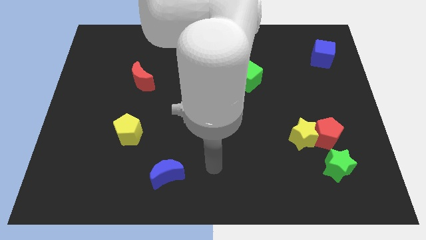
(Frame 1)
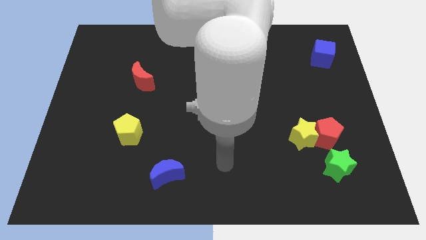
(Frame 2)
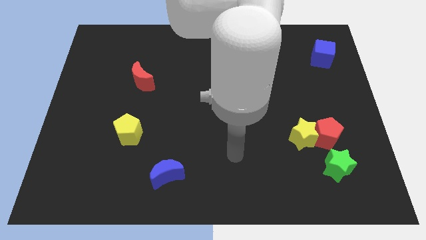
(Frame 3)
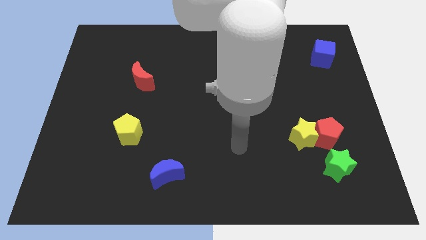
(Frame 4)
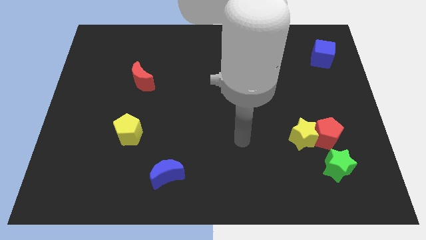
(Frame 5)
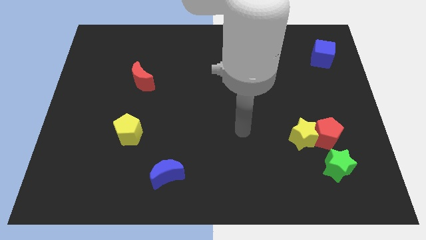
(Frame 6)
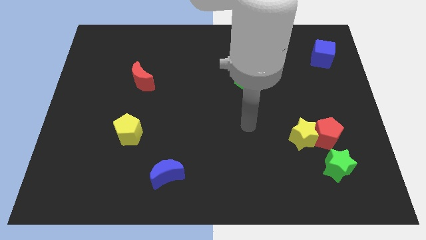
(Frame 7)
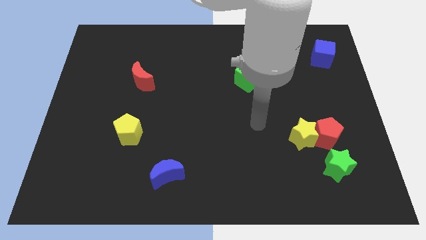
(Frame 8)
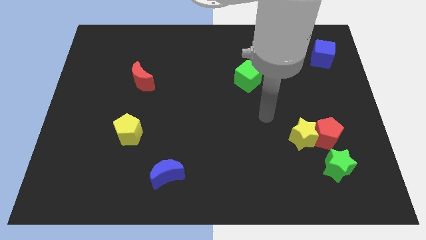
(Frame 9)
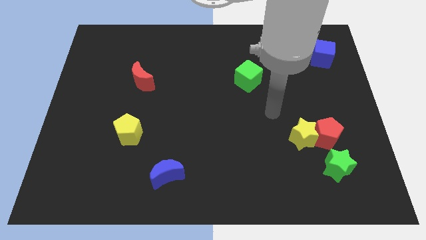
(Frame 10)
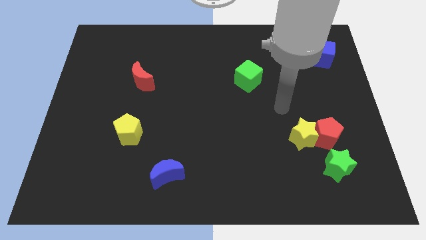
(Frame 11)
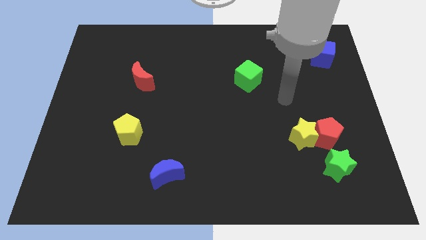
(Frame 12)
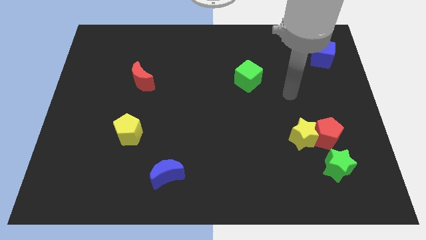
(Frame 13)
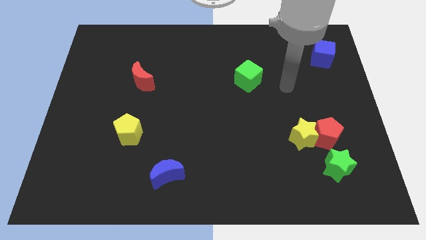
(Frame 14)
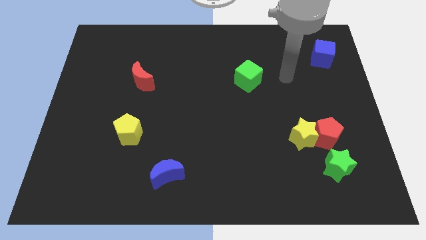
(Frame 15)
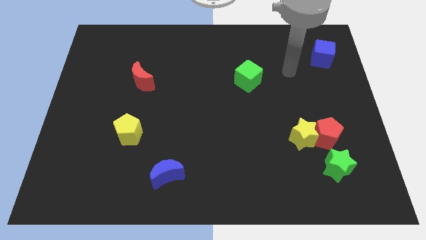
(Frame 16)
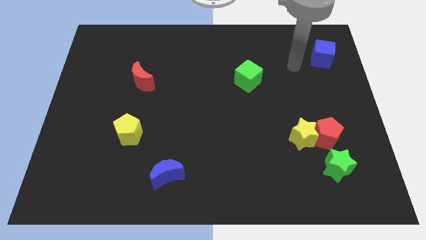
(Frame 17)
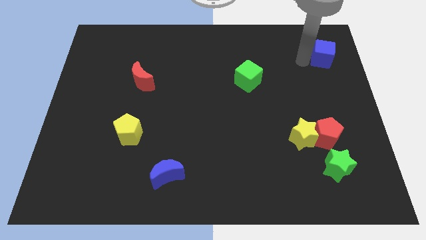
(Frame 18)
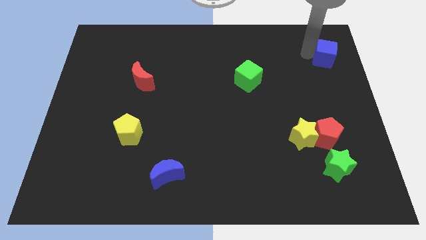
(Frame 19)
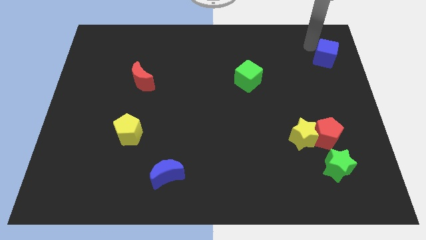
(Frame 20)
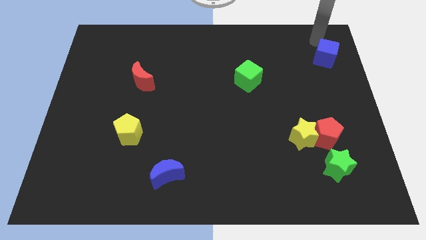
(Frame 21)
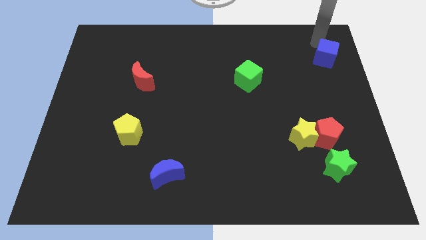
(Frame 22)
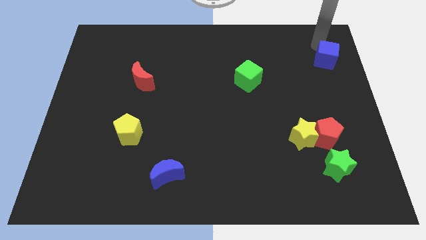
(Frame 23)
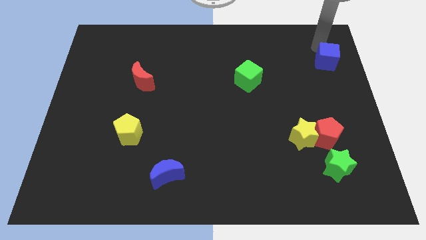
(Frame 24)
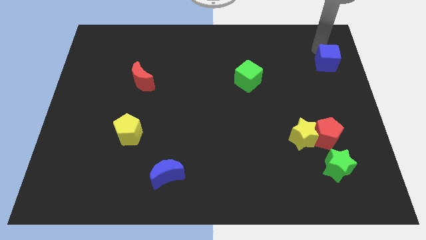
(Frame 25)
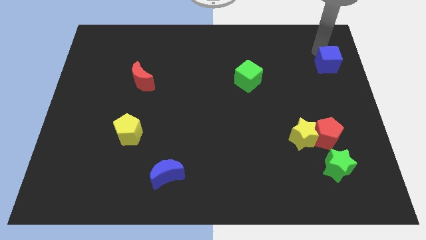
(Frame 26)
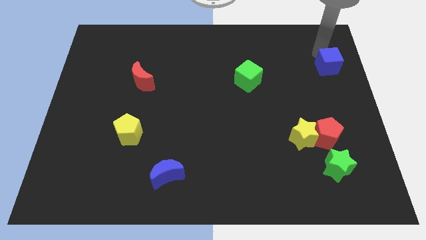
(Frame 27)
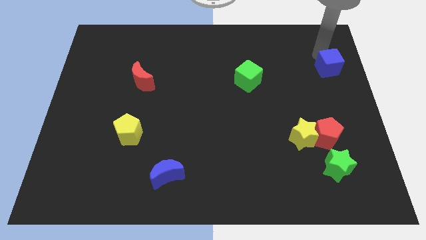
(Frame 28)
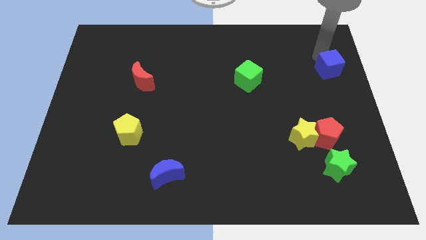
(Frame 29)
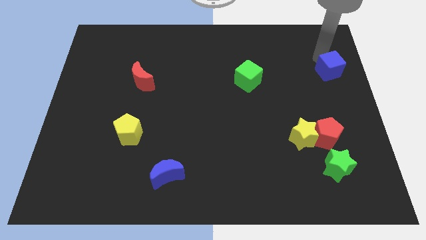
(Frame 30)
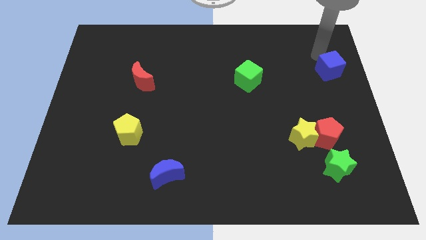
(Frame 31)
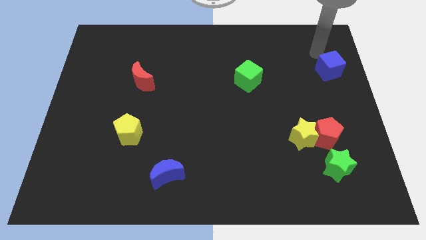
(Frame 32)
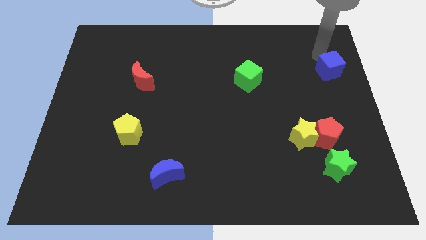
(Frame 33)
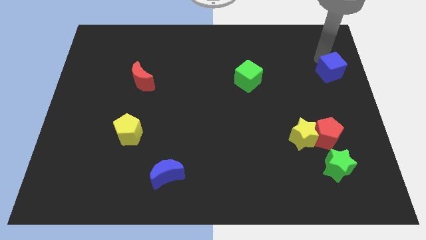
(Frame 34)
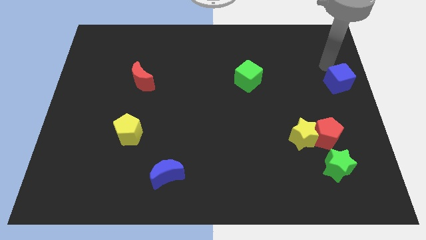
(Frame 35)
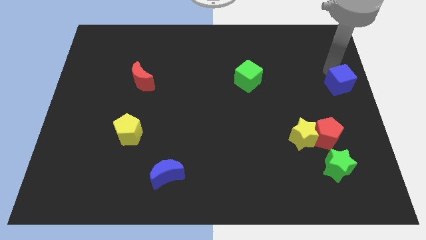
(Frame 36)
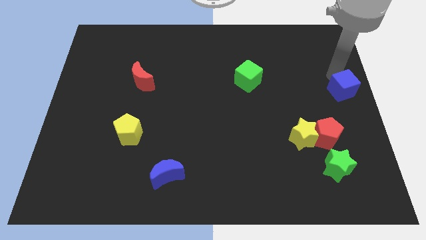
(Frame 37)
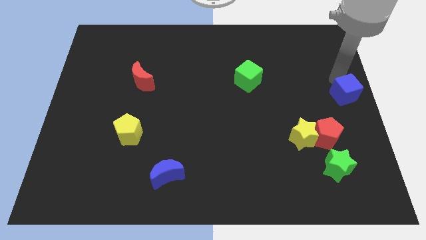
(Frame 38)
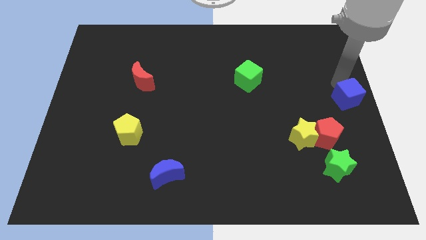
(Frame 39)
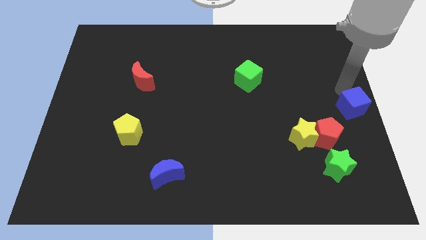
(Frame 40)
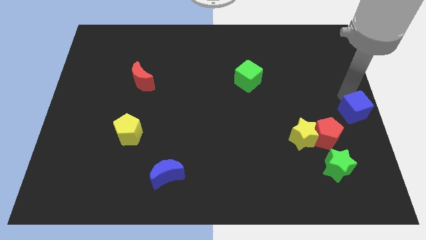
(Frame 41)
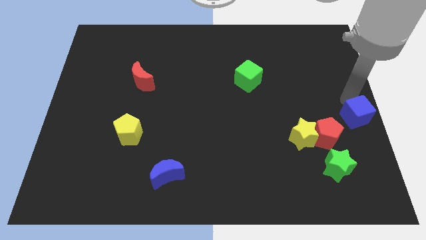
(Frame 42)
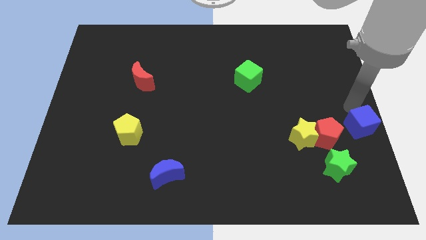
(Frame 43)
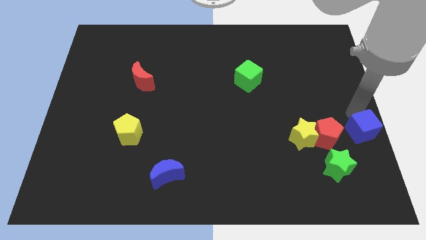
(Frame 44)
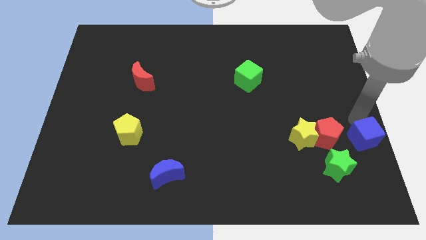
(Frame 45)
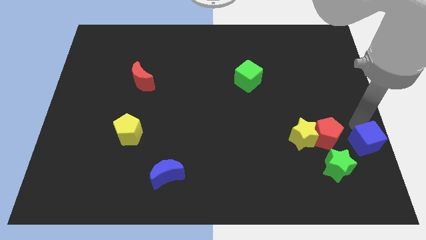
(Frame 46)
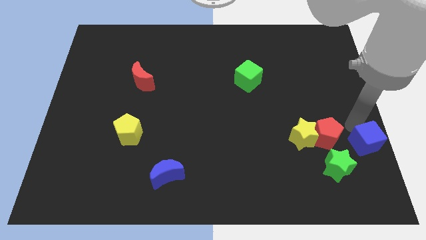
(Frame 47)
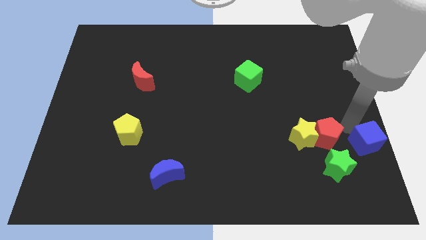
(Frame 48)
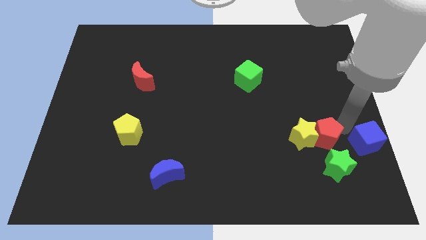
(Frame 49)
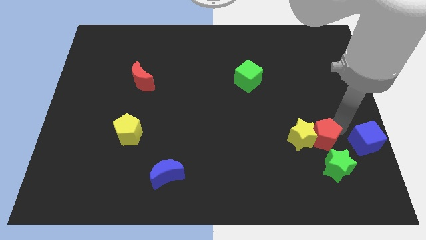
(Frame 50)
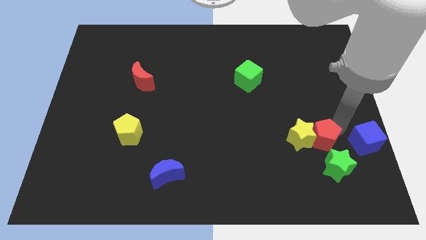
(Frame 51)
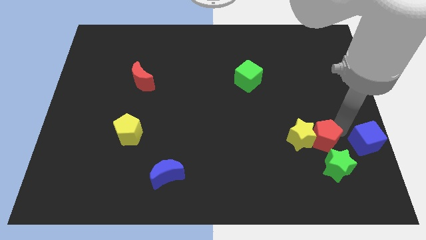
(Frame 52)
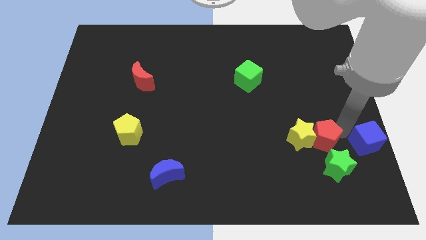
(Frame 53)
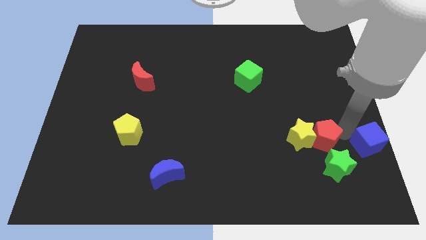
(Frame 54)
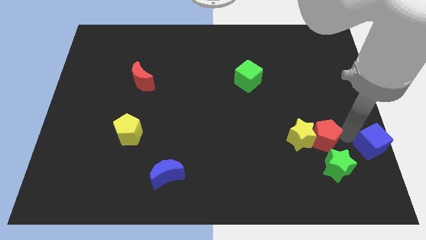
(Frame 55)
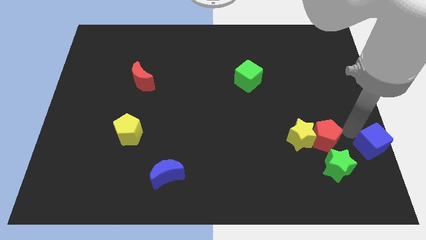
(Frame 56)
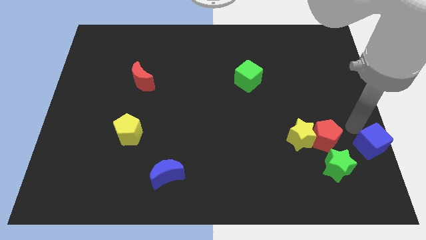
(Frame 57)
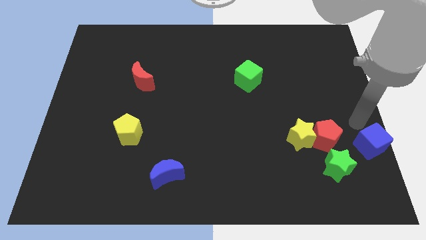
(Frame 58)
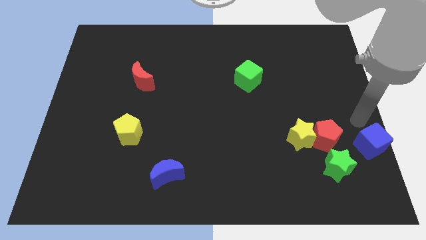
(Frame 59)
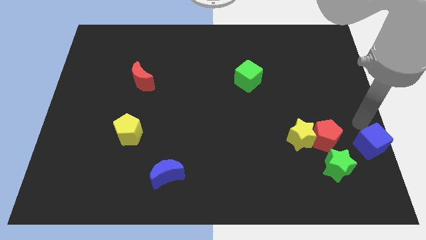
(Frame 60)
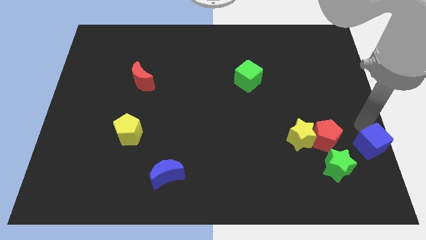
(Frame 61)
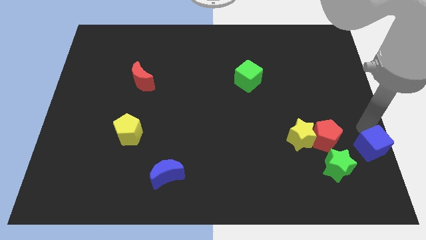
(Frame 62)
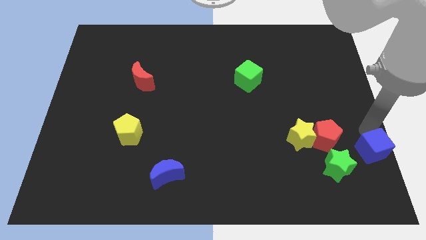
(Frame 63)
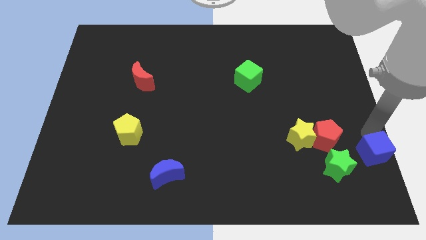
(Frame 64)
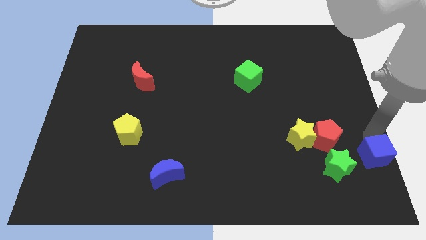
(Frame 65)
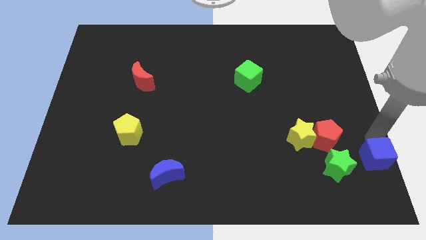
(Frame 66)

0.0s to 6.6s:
put the blue cube to the bottom right corner
